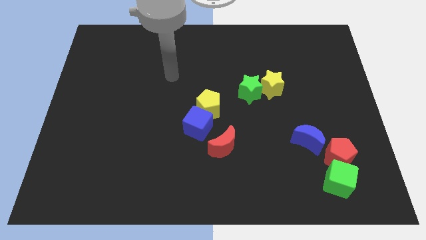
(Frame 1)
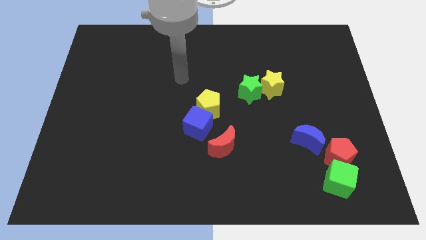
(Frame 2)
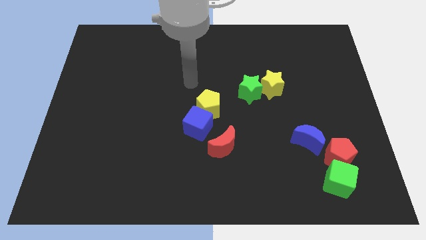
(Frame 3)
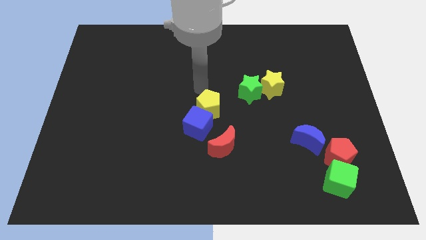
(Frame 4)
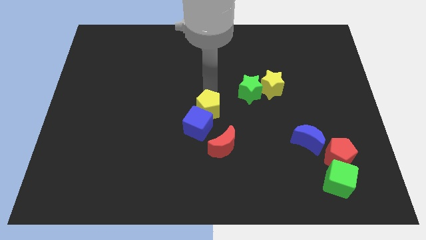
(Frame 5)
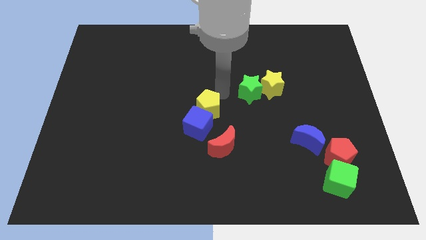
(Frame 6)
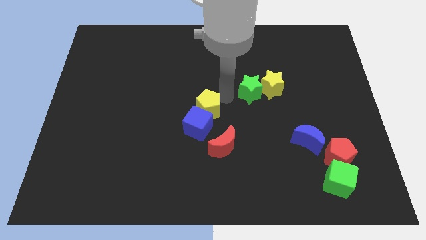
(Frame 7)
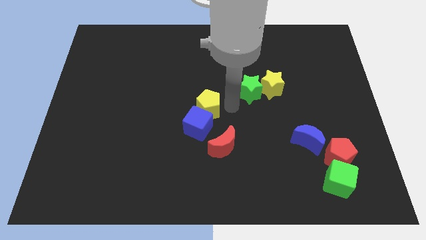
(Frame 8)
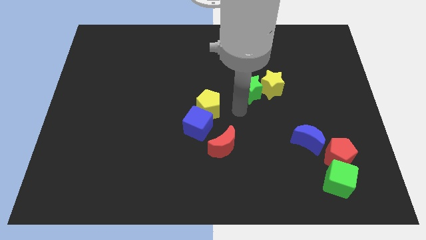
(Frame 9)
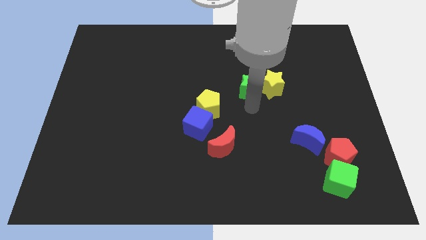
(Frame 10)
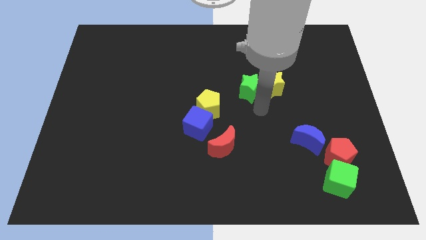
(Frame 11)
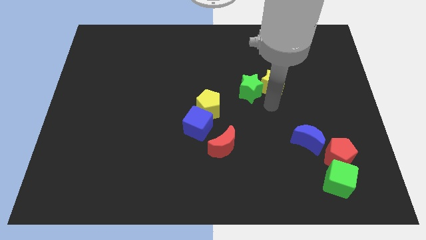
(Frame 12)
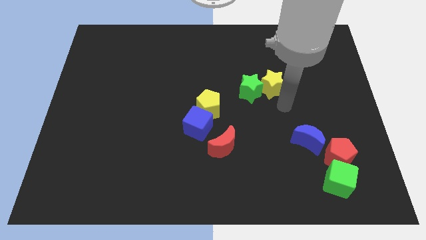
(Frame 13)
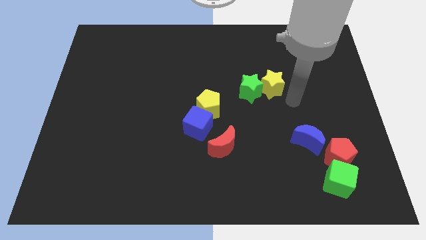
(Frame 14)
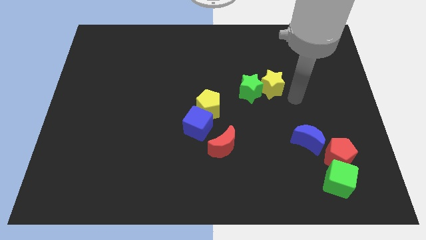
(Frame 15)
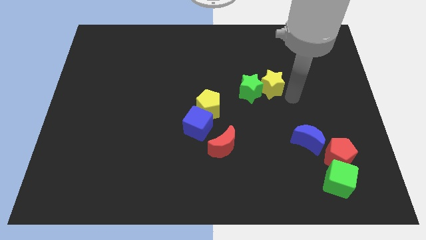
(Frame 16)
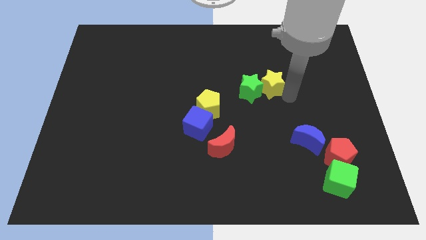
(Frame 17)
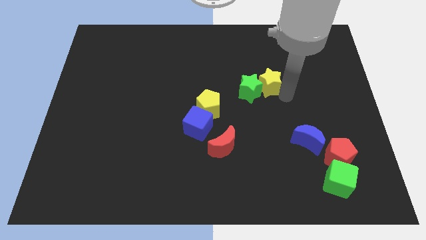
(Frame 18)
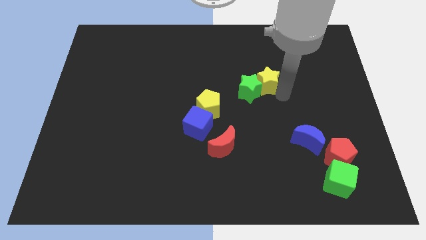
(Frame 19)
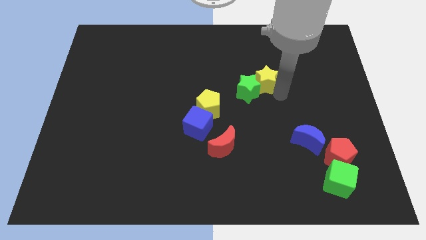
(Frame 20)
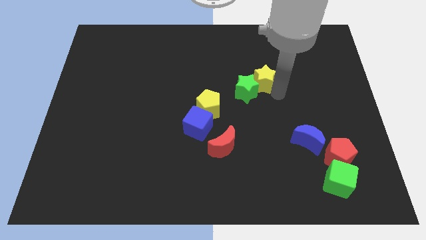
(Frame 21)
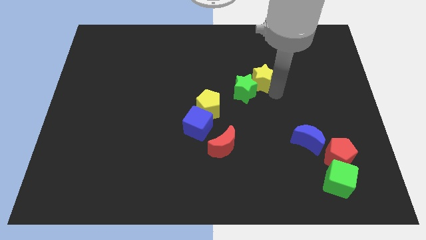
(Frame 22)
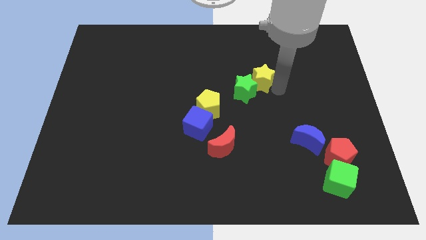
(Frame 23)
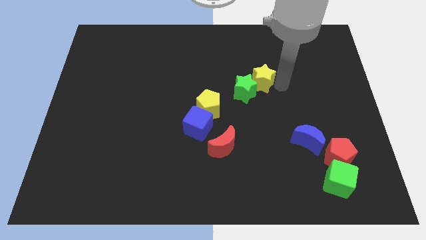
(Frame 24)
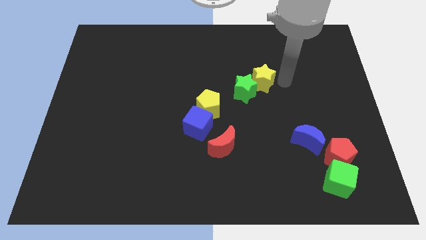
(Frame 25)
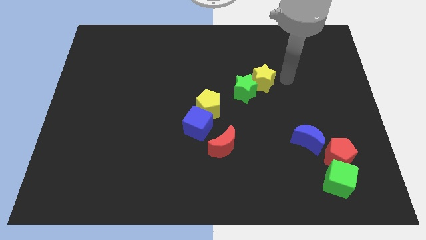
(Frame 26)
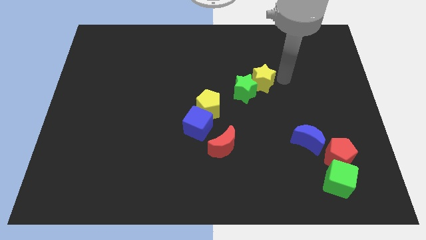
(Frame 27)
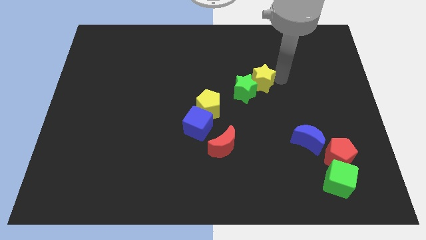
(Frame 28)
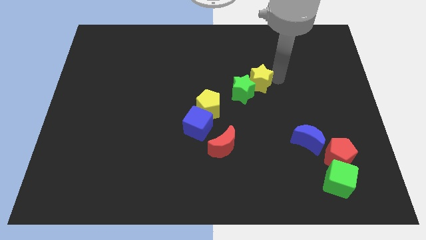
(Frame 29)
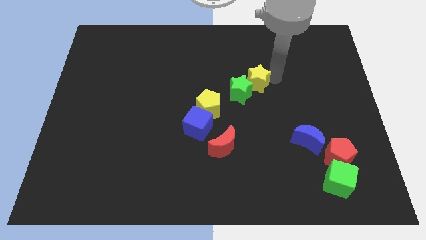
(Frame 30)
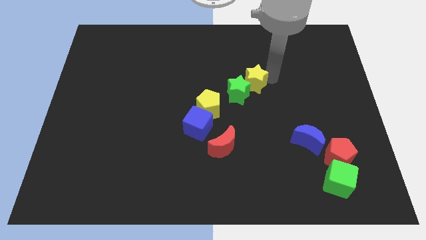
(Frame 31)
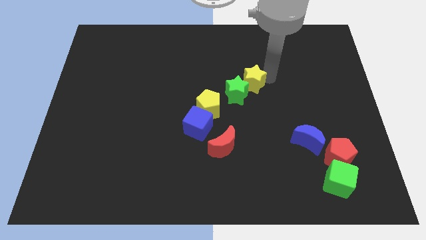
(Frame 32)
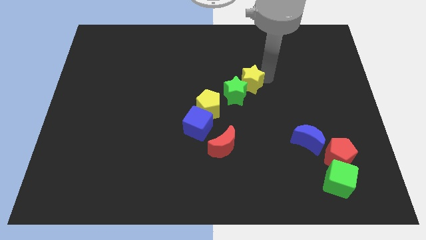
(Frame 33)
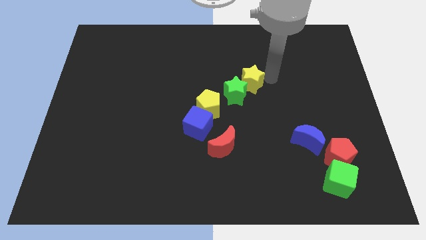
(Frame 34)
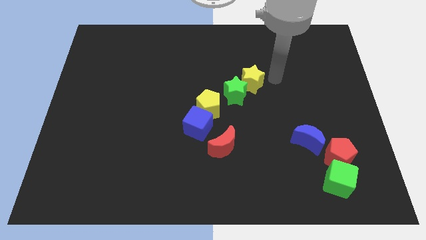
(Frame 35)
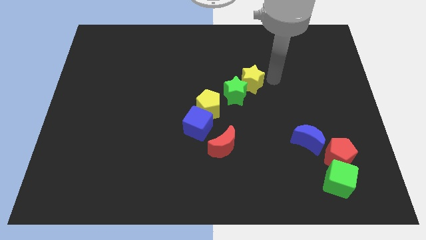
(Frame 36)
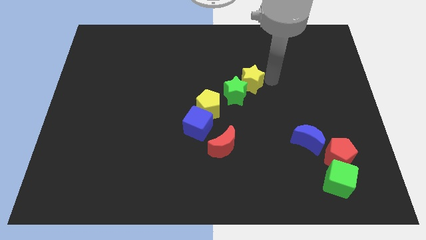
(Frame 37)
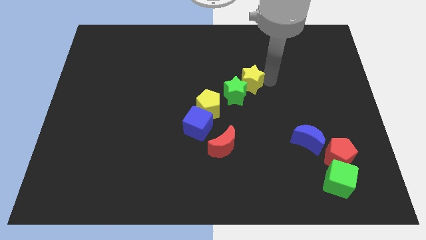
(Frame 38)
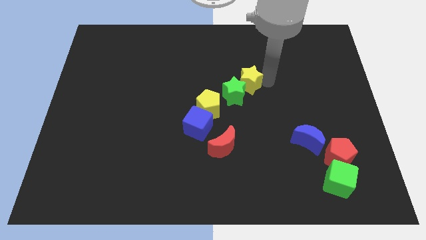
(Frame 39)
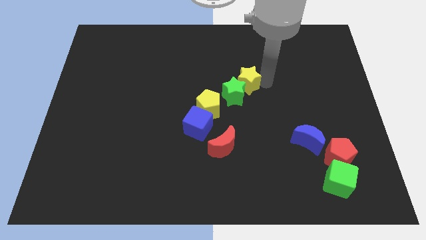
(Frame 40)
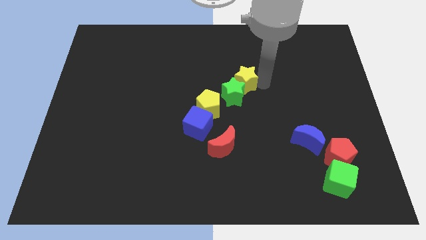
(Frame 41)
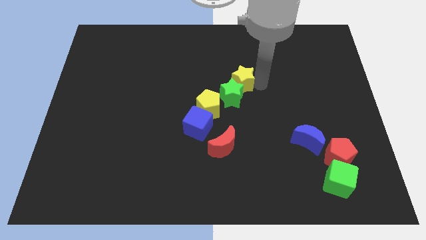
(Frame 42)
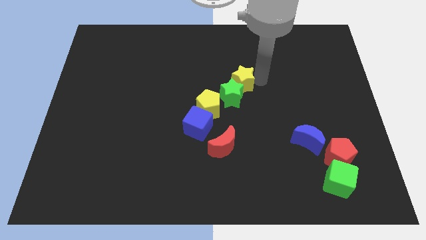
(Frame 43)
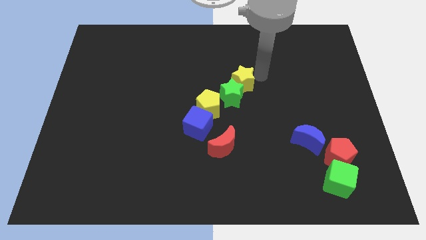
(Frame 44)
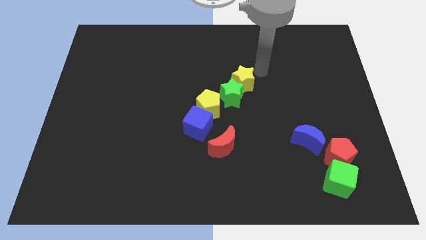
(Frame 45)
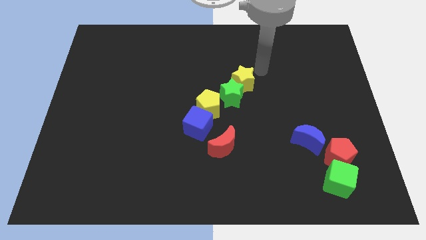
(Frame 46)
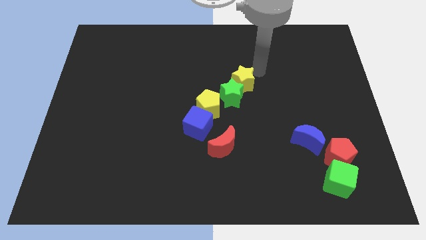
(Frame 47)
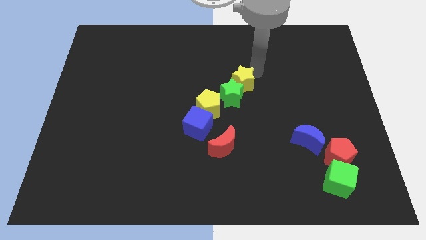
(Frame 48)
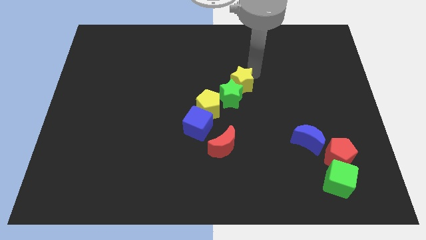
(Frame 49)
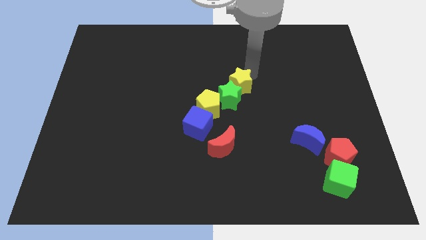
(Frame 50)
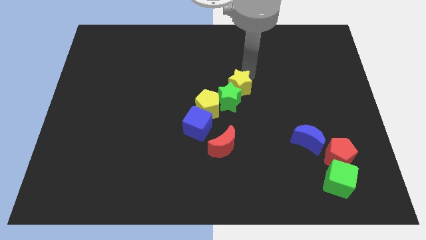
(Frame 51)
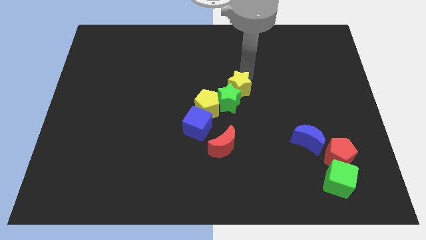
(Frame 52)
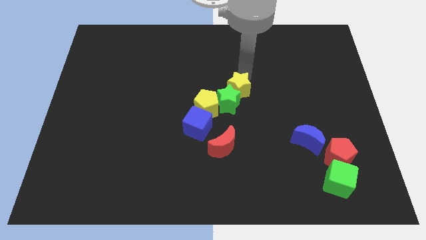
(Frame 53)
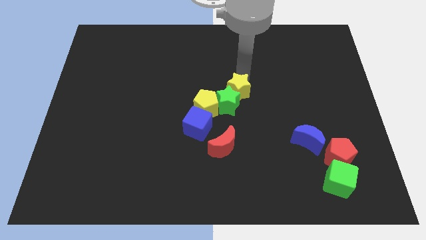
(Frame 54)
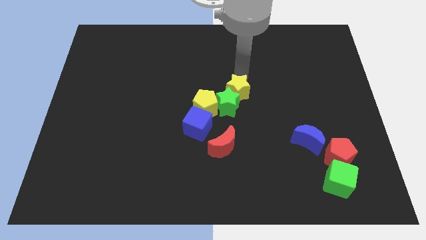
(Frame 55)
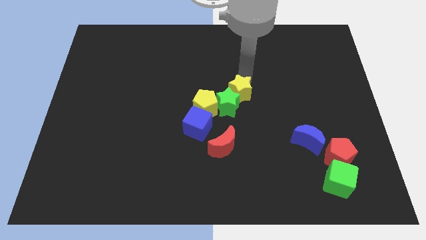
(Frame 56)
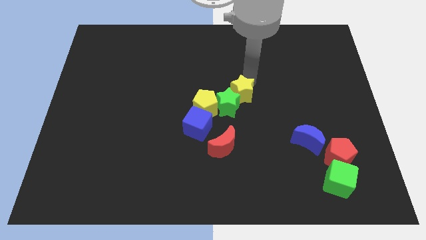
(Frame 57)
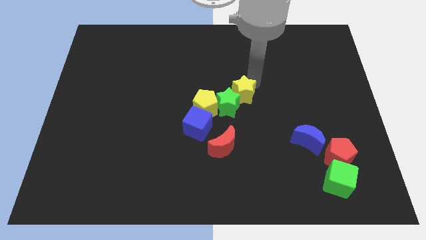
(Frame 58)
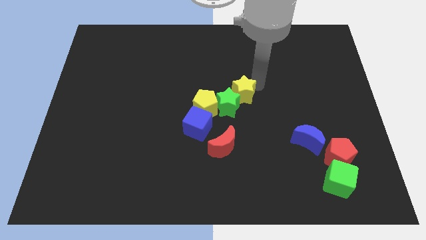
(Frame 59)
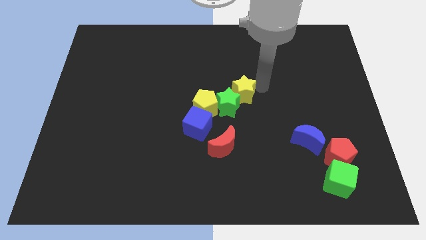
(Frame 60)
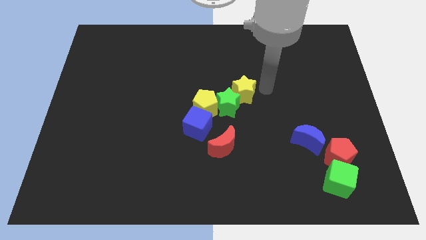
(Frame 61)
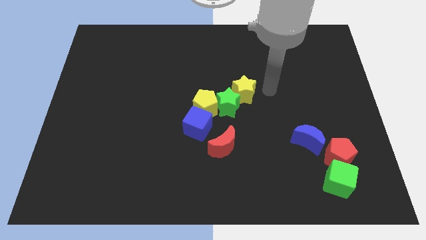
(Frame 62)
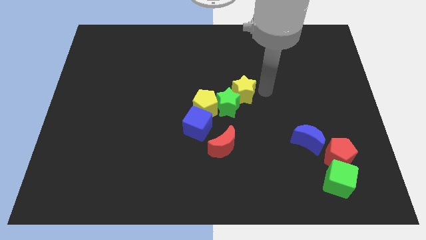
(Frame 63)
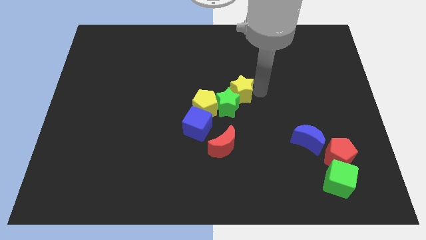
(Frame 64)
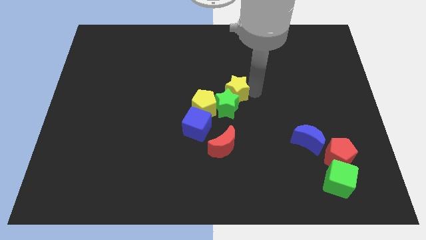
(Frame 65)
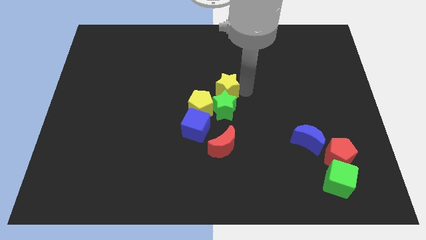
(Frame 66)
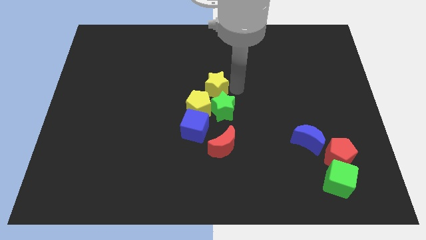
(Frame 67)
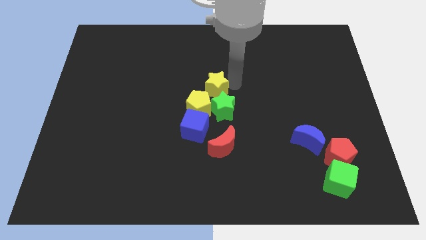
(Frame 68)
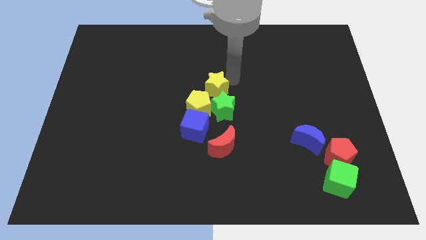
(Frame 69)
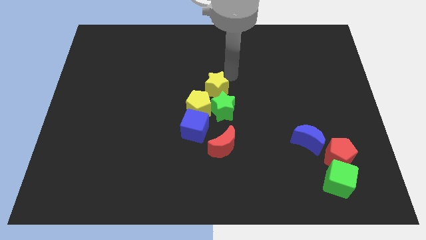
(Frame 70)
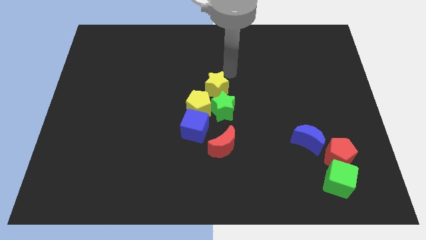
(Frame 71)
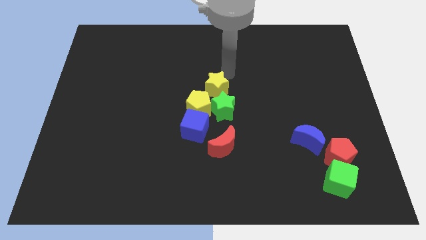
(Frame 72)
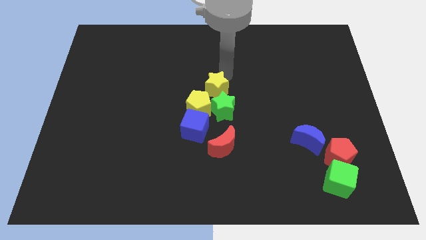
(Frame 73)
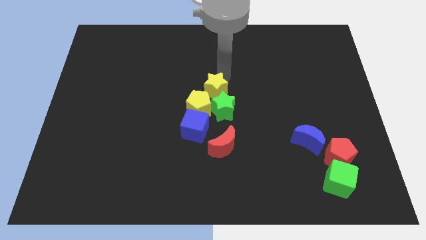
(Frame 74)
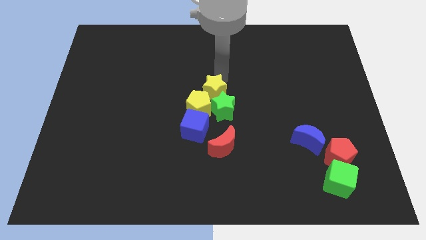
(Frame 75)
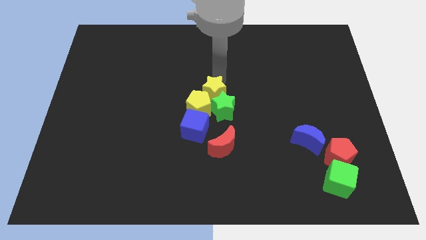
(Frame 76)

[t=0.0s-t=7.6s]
put the yellow star close to the yellow pentagon
